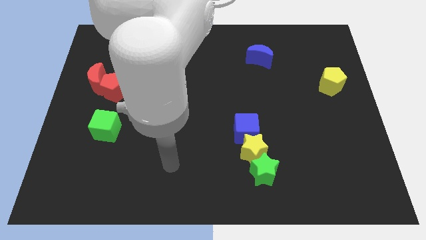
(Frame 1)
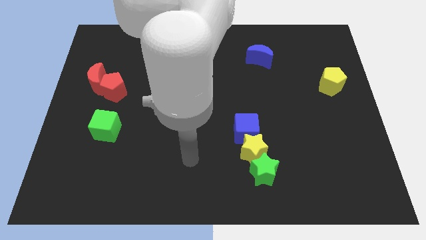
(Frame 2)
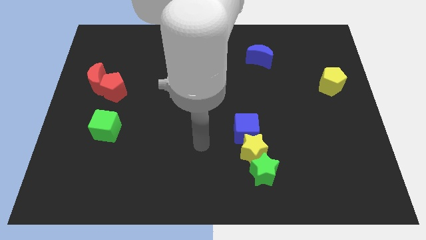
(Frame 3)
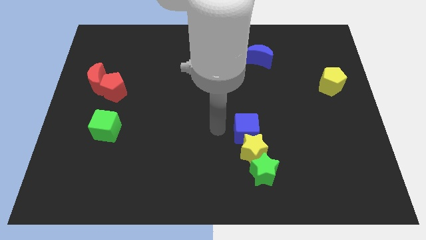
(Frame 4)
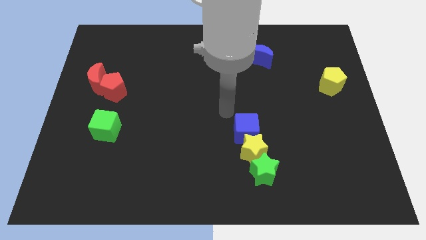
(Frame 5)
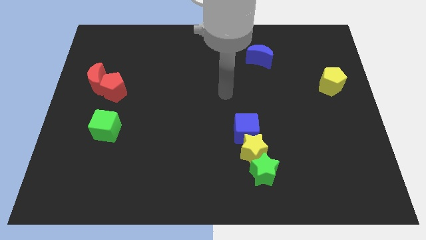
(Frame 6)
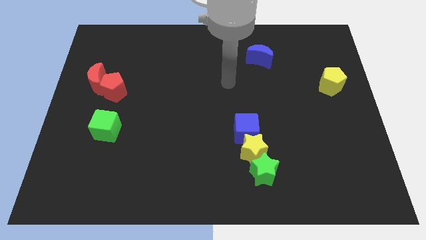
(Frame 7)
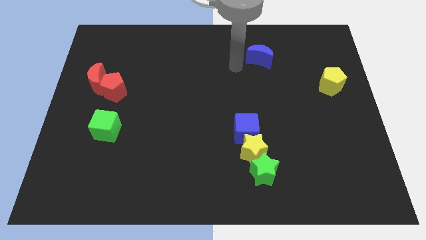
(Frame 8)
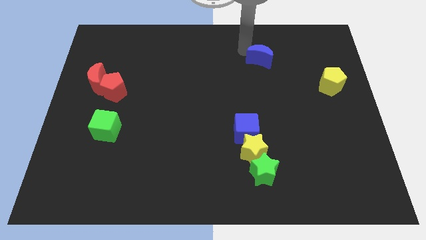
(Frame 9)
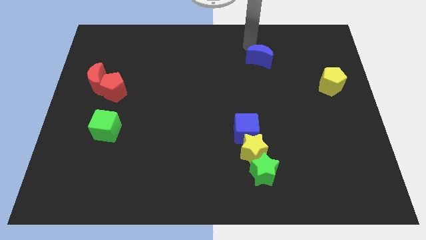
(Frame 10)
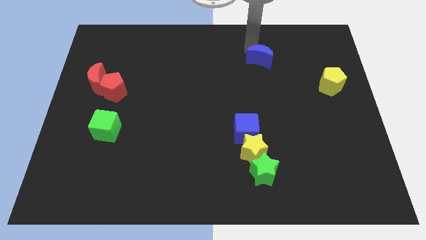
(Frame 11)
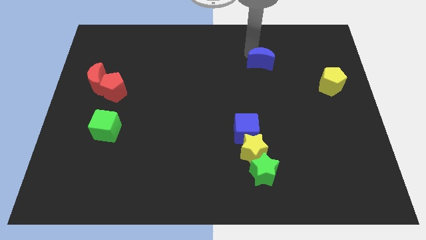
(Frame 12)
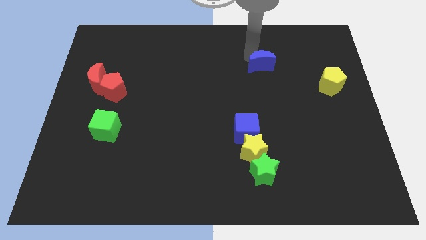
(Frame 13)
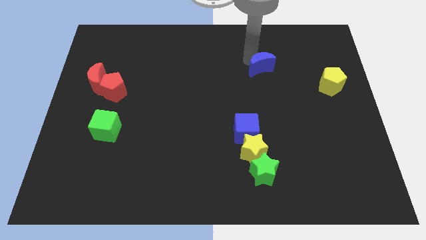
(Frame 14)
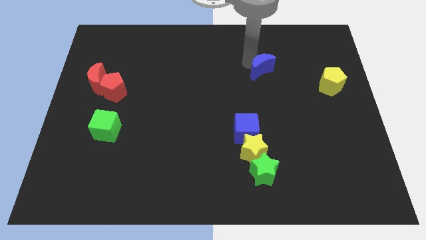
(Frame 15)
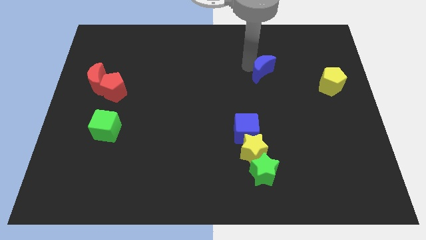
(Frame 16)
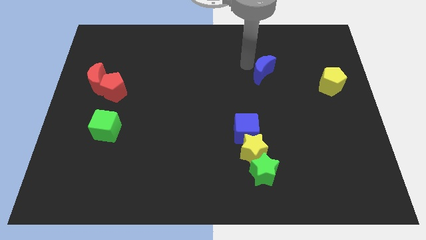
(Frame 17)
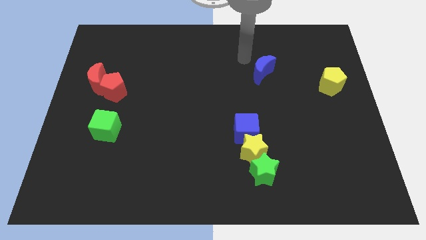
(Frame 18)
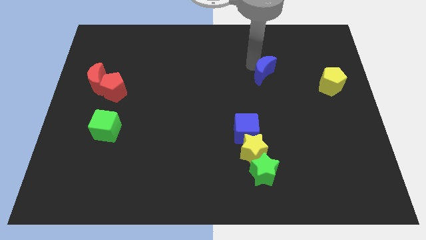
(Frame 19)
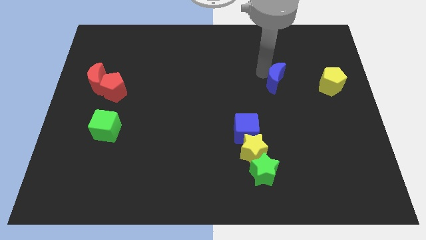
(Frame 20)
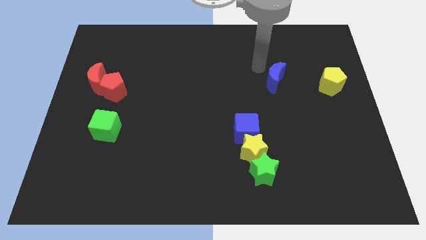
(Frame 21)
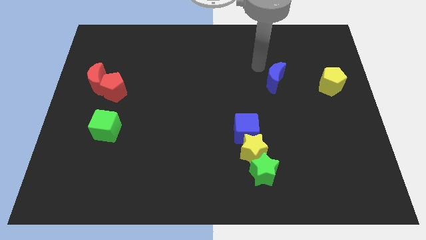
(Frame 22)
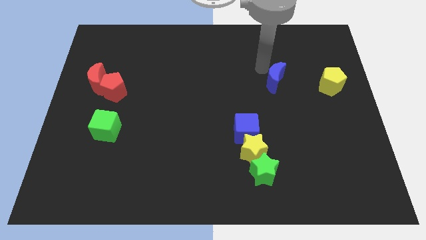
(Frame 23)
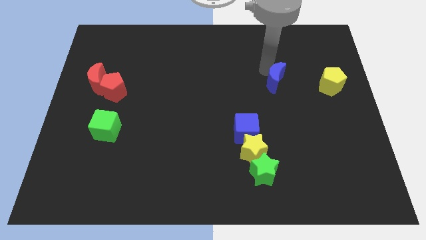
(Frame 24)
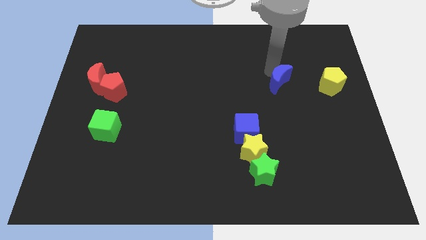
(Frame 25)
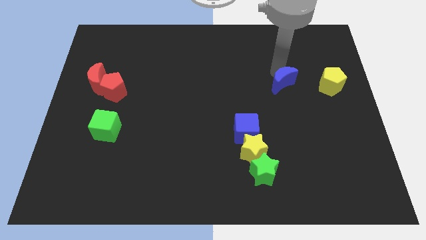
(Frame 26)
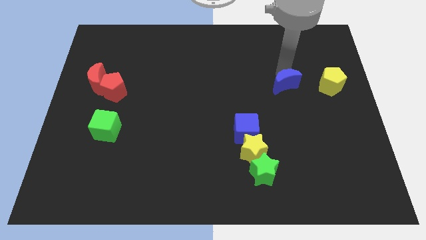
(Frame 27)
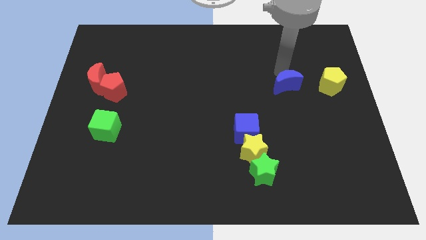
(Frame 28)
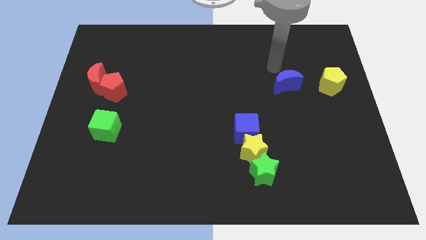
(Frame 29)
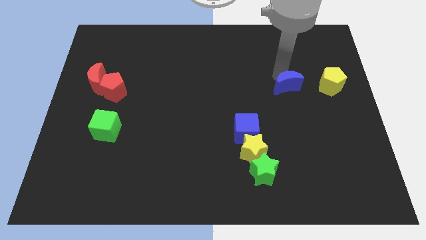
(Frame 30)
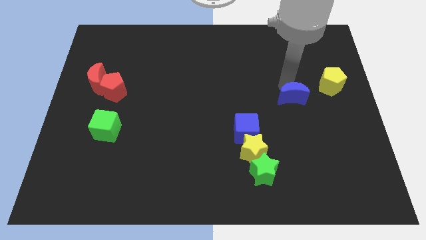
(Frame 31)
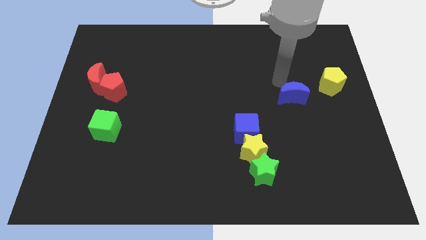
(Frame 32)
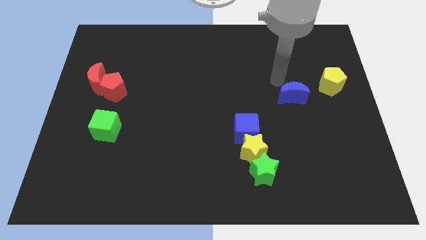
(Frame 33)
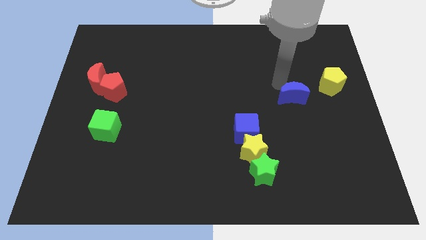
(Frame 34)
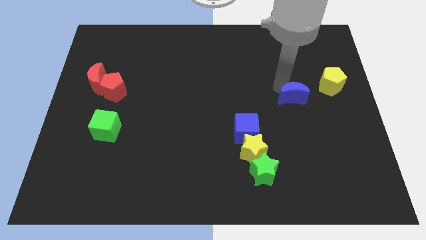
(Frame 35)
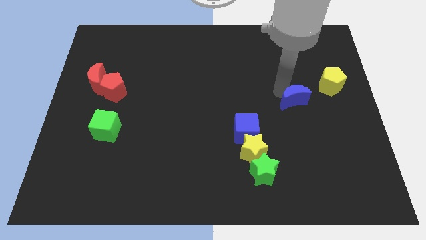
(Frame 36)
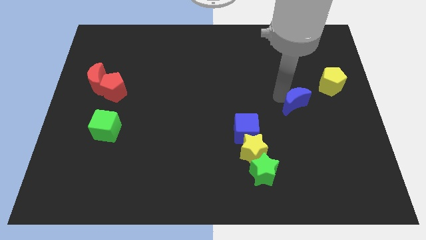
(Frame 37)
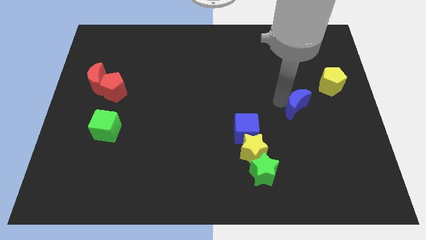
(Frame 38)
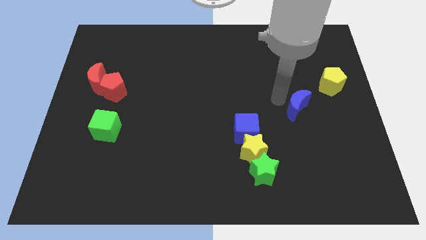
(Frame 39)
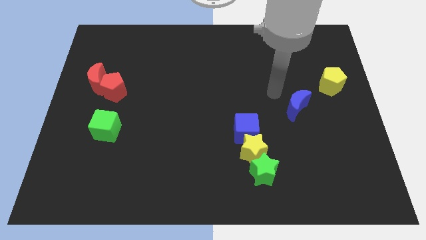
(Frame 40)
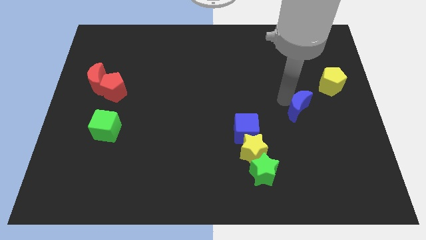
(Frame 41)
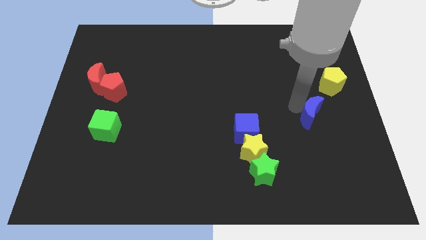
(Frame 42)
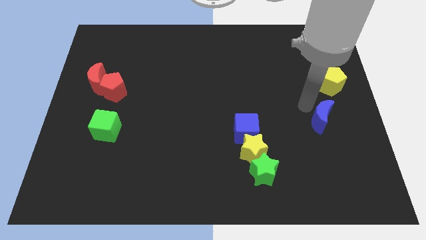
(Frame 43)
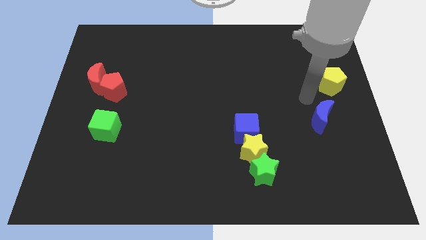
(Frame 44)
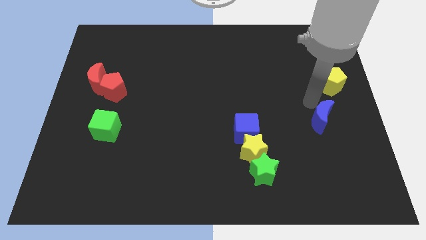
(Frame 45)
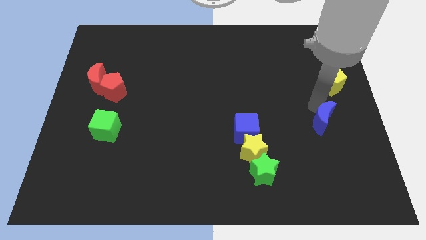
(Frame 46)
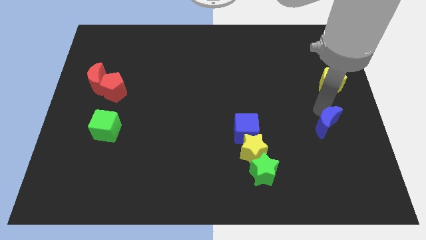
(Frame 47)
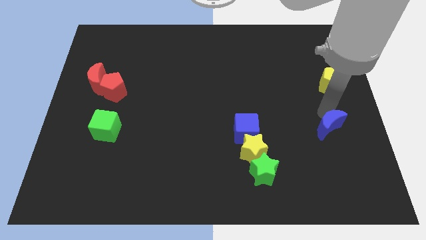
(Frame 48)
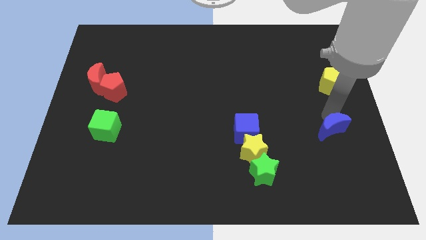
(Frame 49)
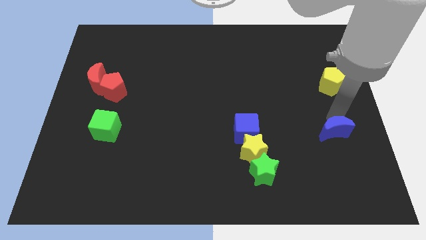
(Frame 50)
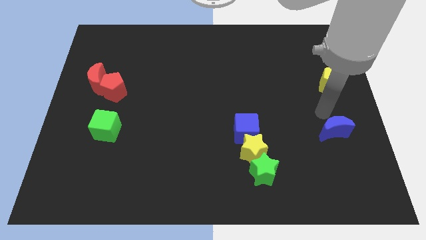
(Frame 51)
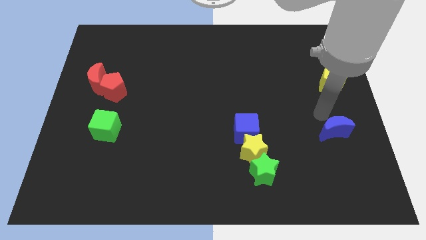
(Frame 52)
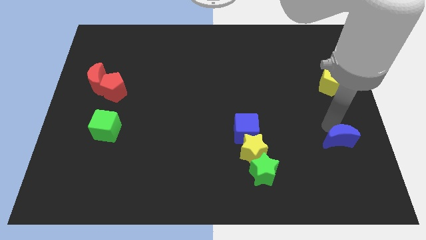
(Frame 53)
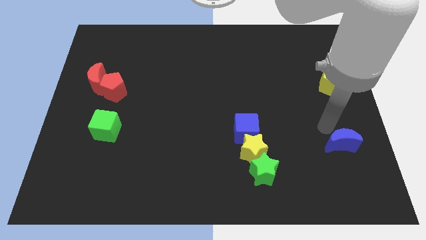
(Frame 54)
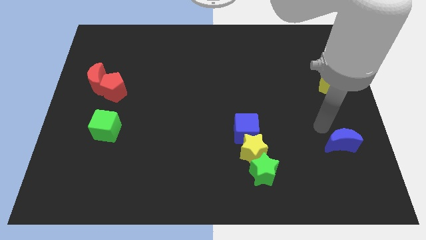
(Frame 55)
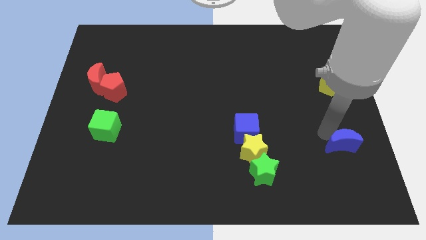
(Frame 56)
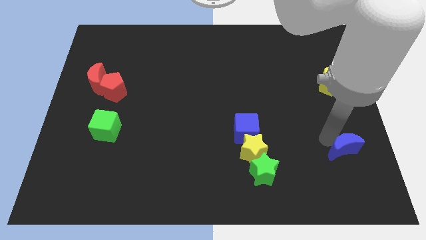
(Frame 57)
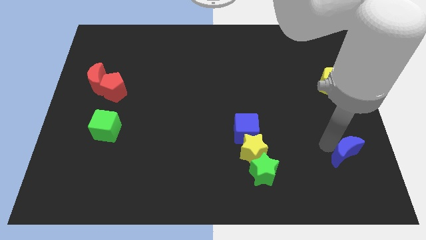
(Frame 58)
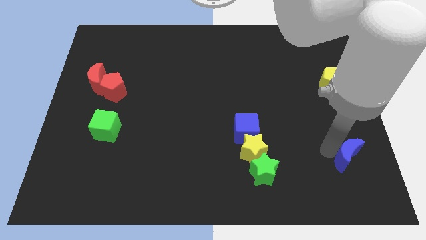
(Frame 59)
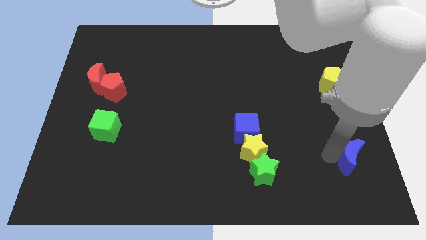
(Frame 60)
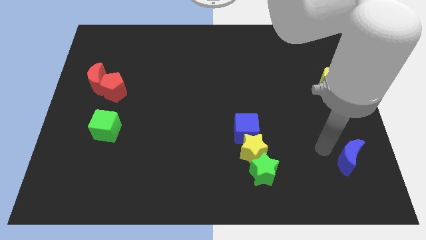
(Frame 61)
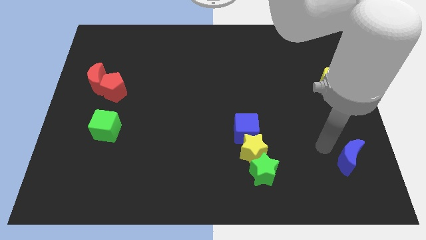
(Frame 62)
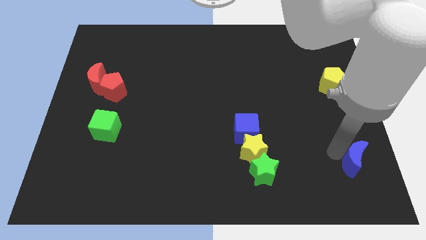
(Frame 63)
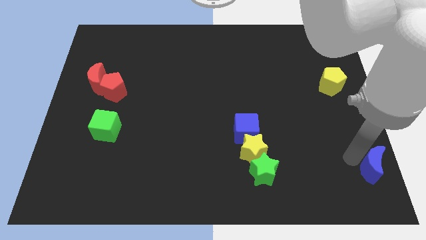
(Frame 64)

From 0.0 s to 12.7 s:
put the blue moon to the bottom right of the board
